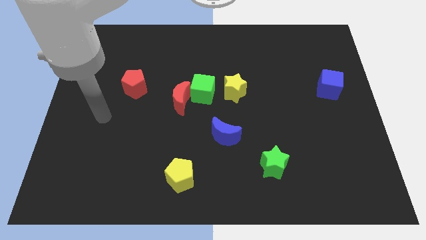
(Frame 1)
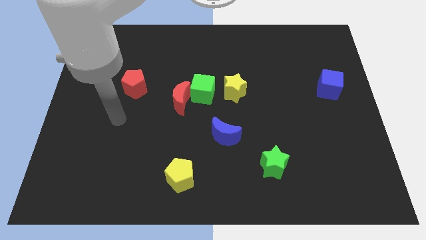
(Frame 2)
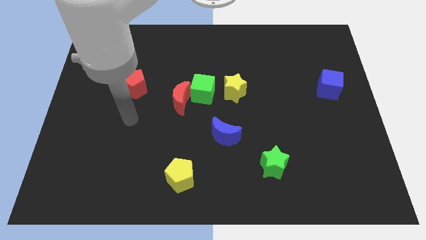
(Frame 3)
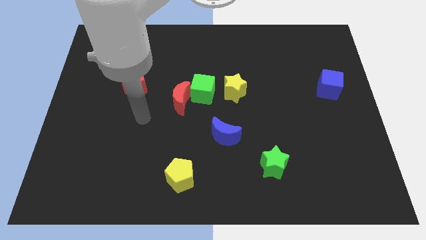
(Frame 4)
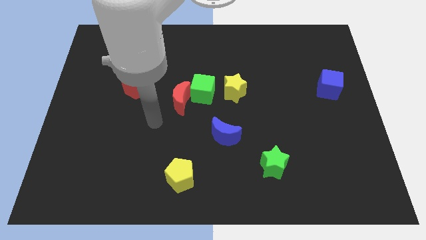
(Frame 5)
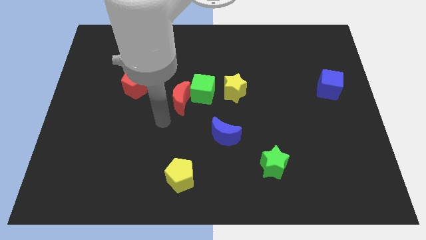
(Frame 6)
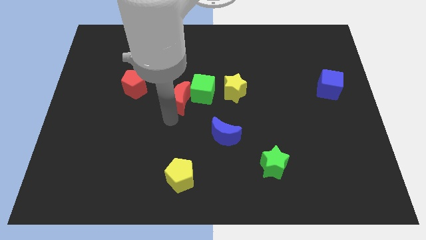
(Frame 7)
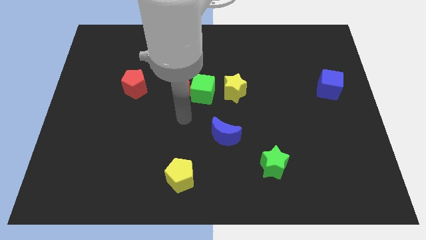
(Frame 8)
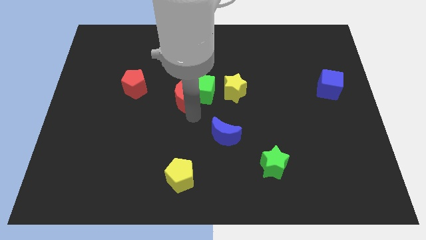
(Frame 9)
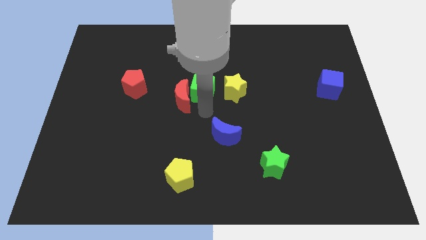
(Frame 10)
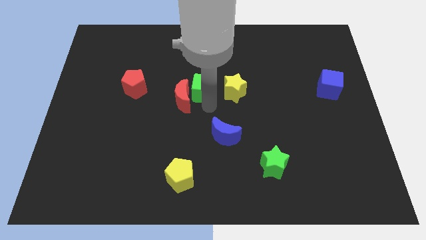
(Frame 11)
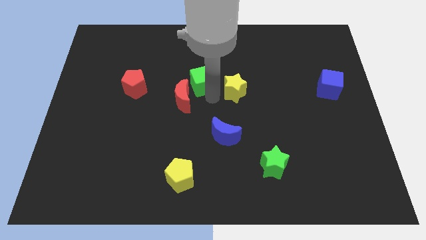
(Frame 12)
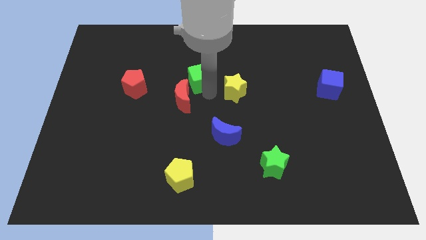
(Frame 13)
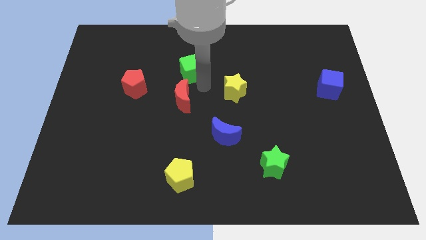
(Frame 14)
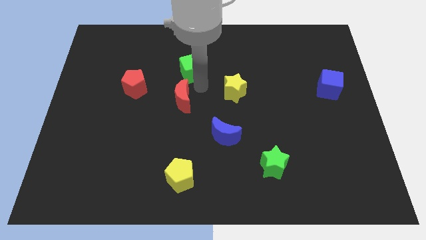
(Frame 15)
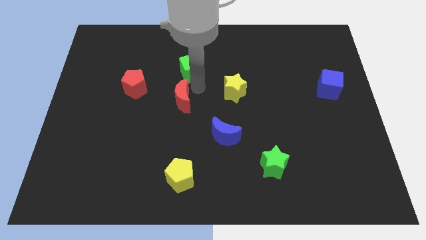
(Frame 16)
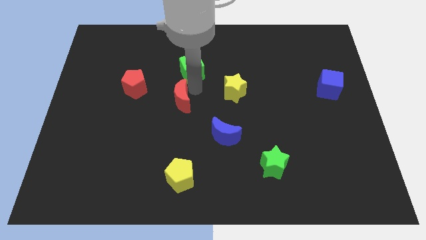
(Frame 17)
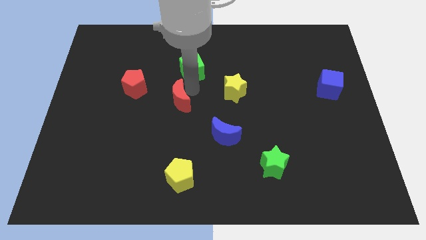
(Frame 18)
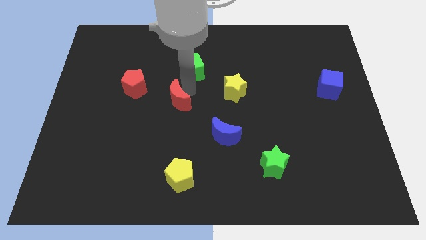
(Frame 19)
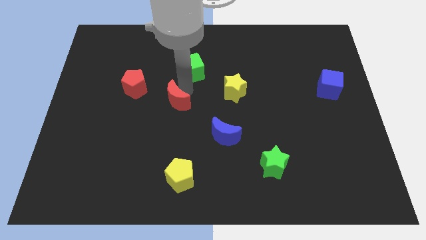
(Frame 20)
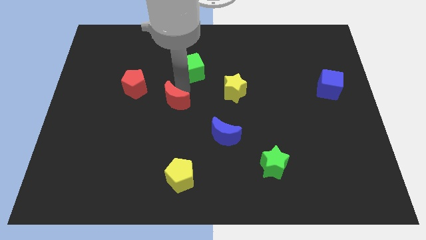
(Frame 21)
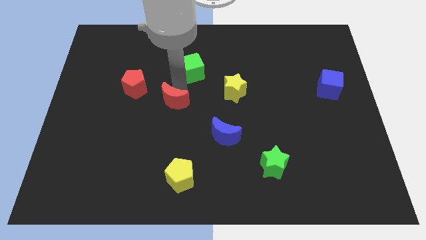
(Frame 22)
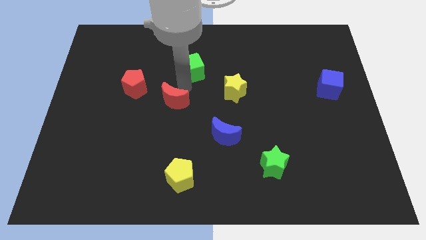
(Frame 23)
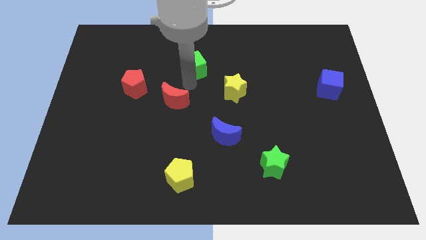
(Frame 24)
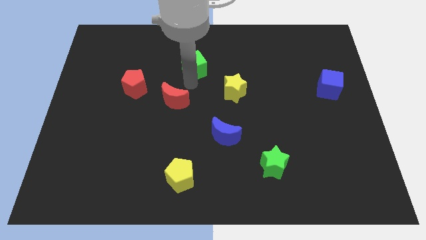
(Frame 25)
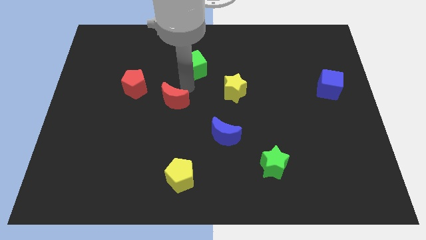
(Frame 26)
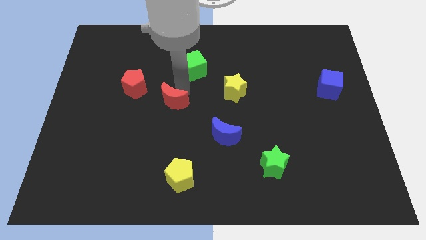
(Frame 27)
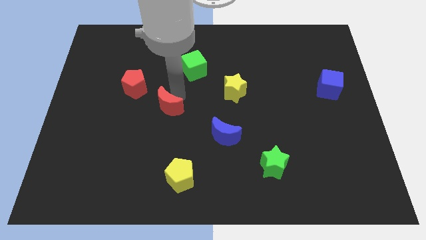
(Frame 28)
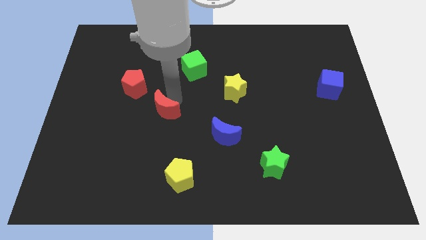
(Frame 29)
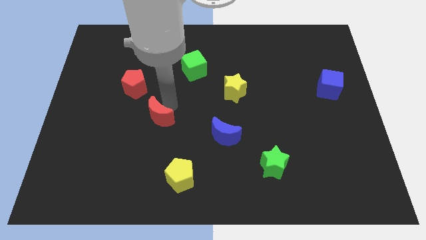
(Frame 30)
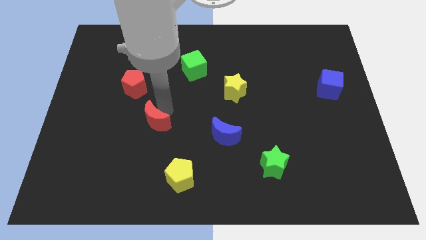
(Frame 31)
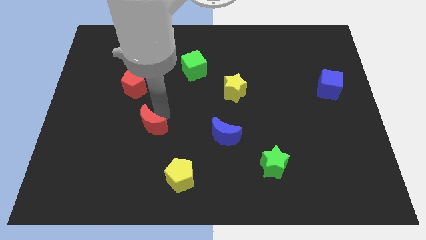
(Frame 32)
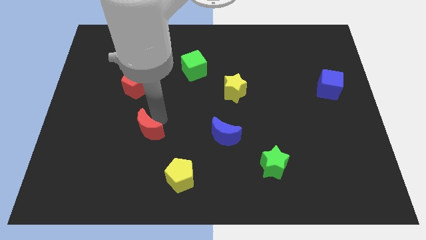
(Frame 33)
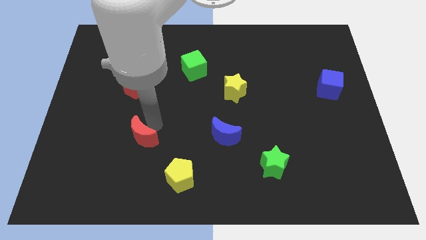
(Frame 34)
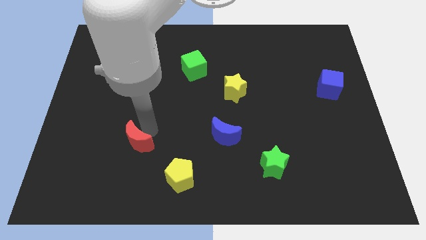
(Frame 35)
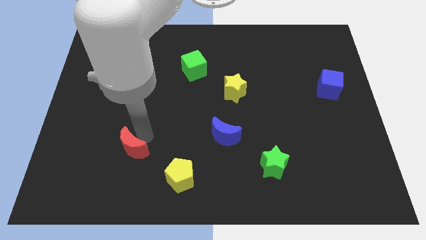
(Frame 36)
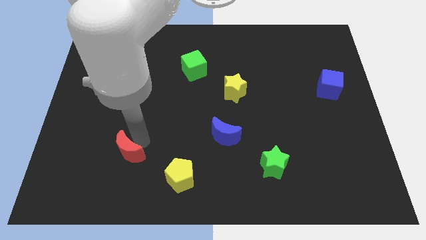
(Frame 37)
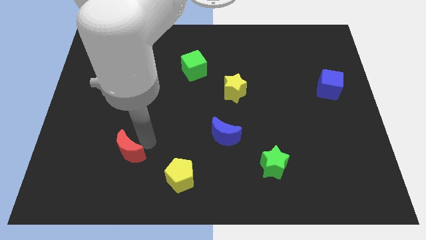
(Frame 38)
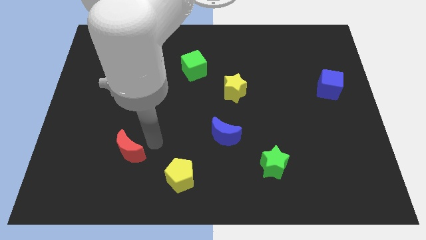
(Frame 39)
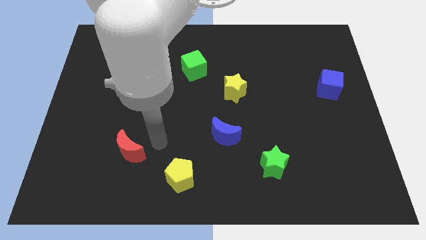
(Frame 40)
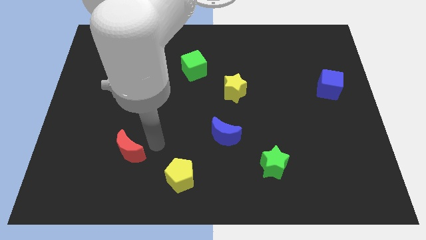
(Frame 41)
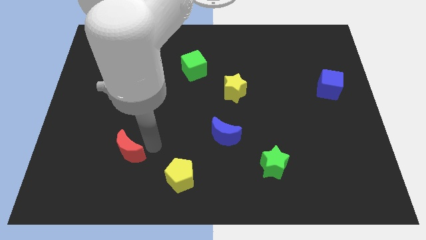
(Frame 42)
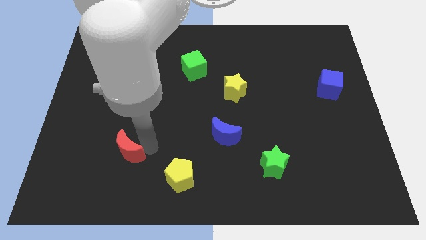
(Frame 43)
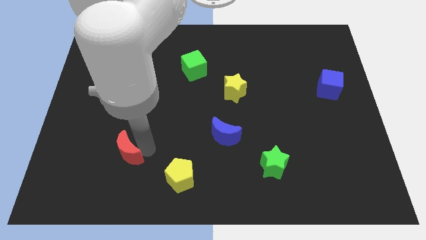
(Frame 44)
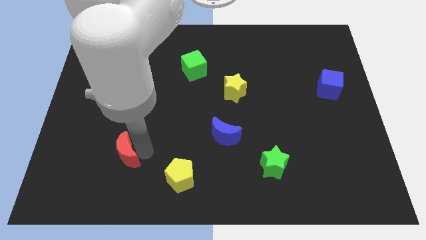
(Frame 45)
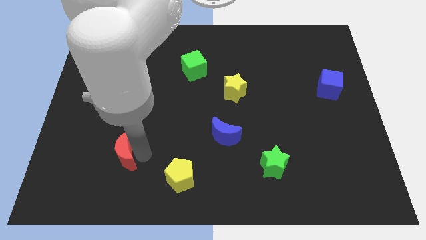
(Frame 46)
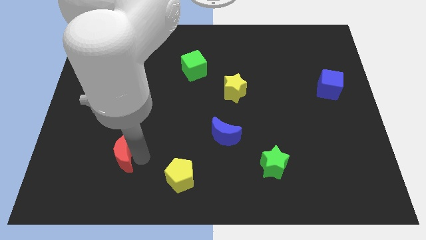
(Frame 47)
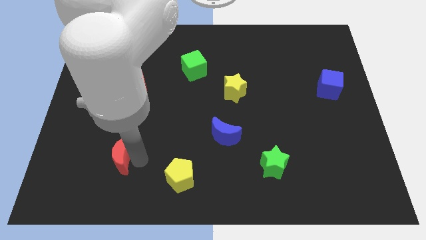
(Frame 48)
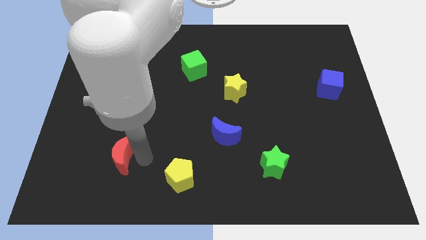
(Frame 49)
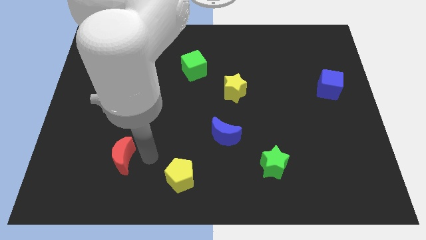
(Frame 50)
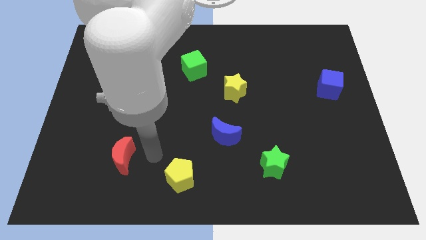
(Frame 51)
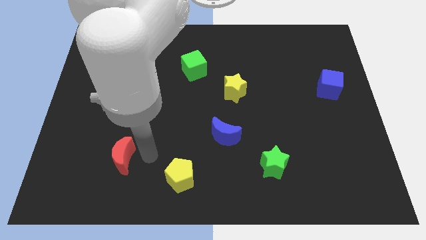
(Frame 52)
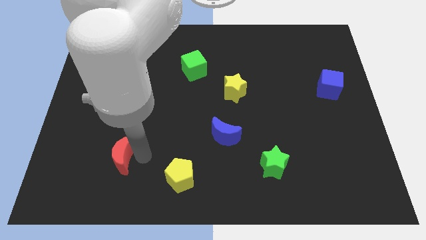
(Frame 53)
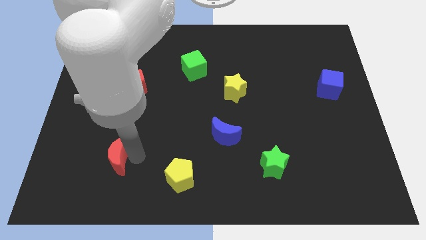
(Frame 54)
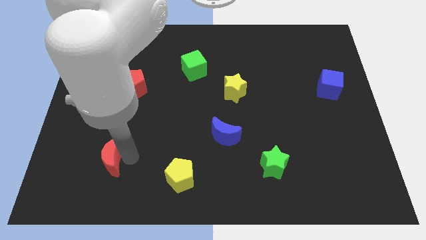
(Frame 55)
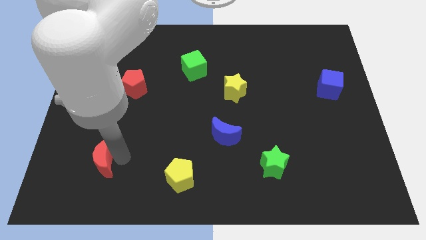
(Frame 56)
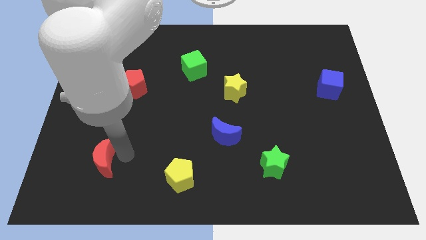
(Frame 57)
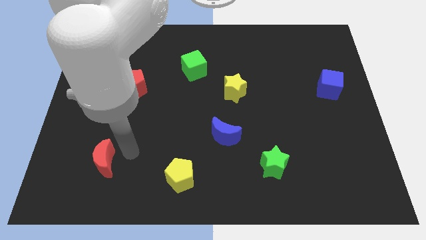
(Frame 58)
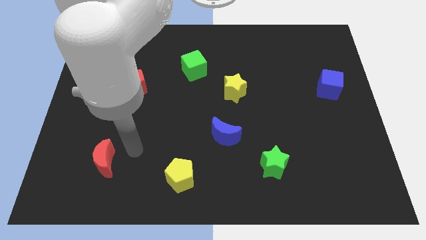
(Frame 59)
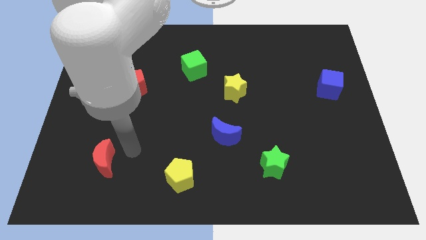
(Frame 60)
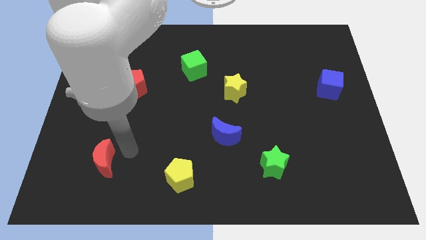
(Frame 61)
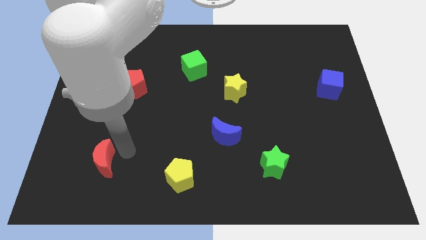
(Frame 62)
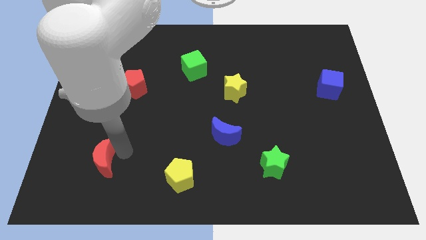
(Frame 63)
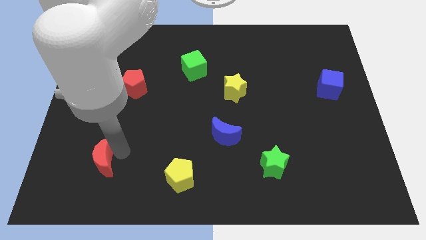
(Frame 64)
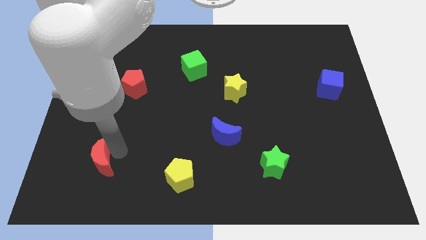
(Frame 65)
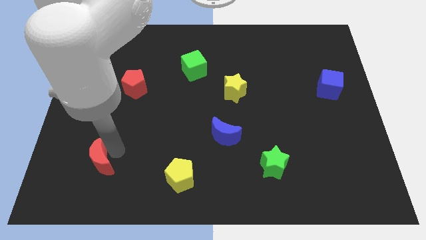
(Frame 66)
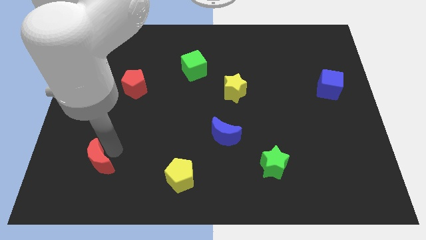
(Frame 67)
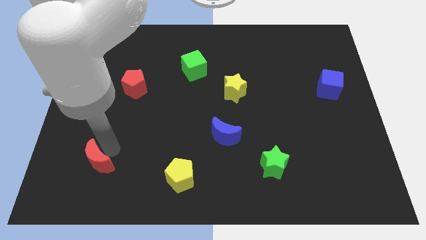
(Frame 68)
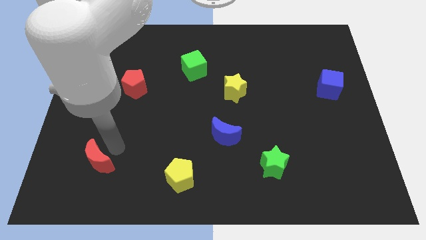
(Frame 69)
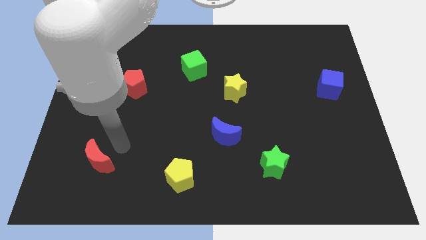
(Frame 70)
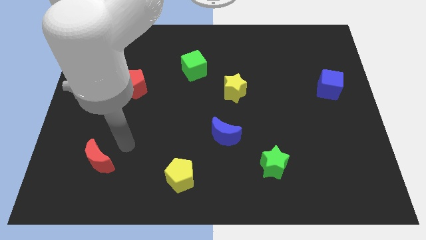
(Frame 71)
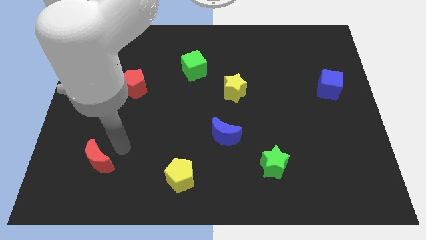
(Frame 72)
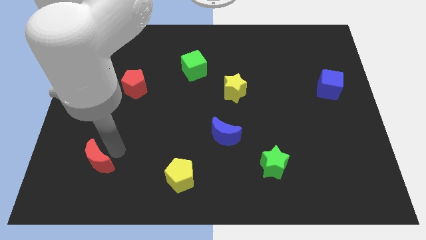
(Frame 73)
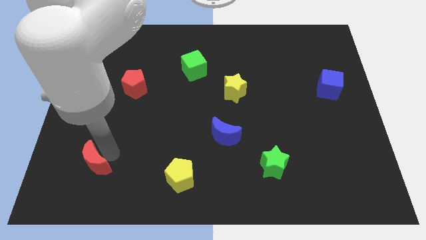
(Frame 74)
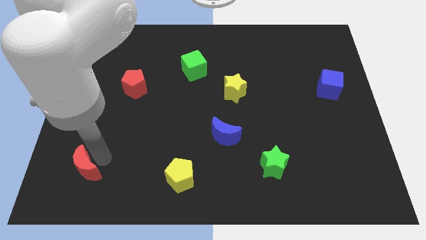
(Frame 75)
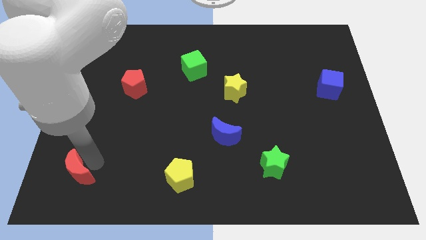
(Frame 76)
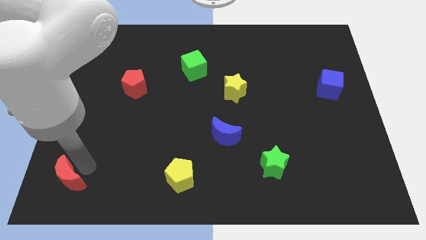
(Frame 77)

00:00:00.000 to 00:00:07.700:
put the red moon to the bottom left of the board
